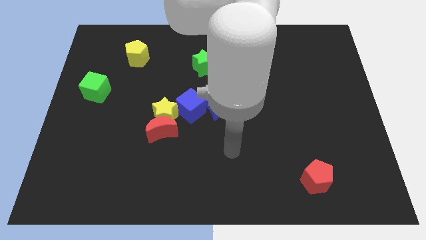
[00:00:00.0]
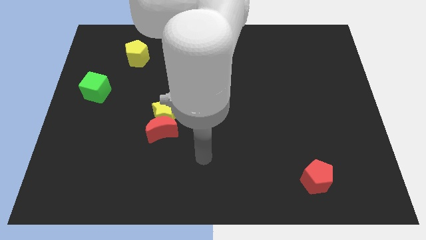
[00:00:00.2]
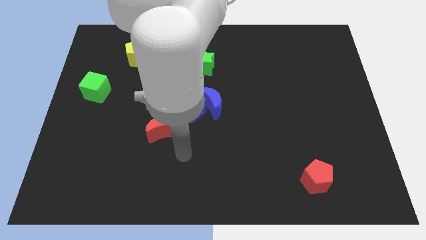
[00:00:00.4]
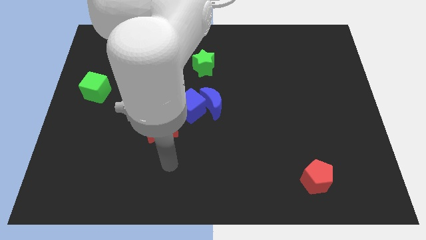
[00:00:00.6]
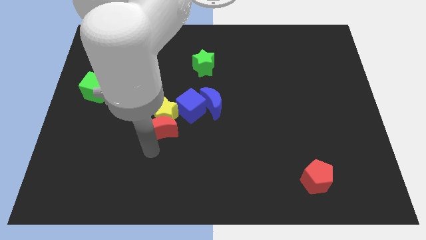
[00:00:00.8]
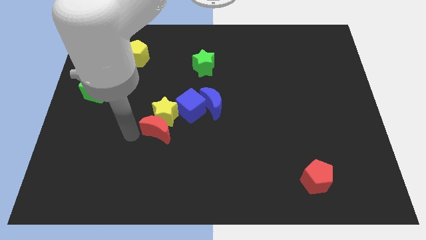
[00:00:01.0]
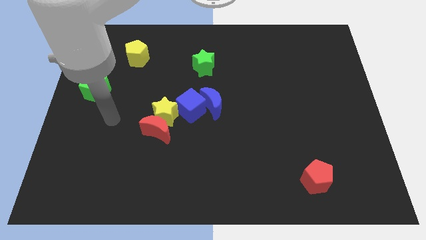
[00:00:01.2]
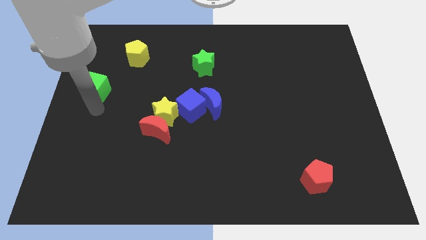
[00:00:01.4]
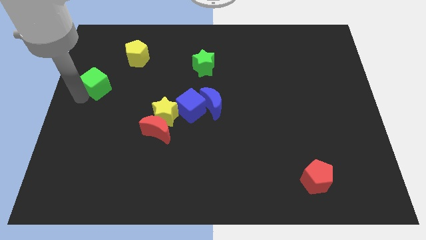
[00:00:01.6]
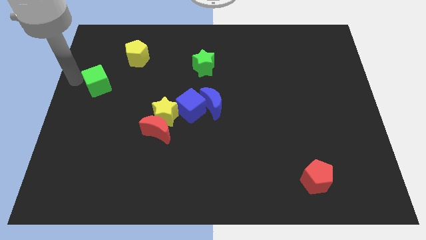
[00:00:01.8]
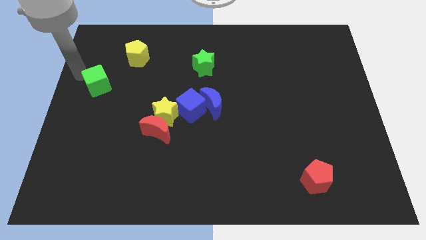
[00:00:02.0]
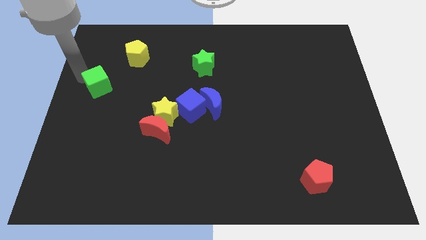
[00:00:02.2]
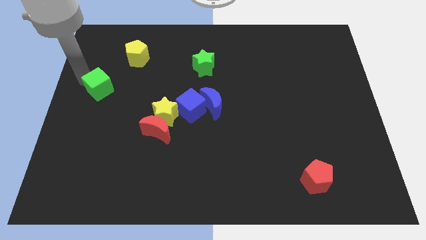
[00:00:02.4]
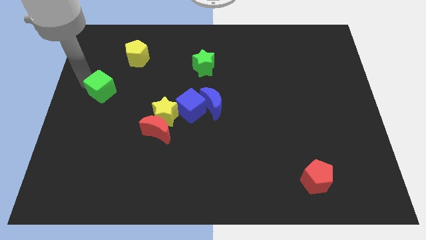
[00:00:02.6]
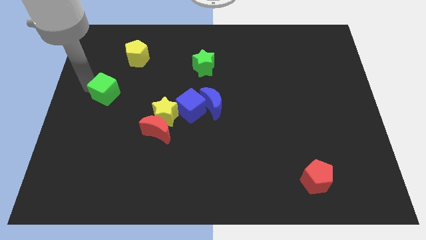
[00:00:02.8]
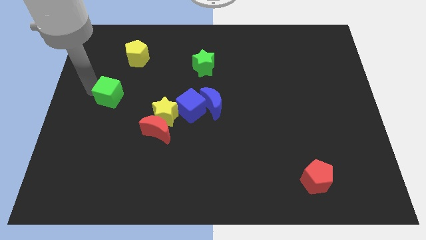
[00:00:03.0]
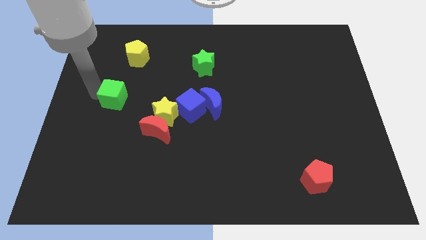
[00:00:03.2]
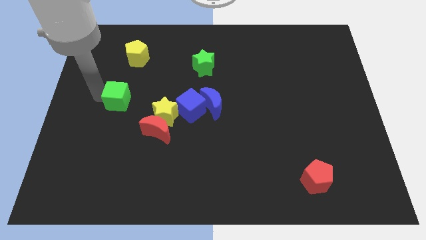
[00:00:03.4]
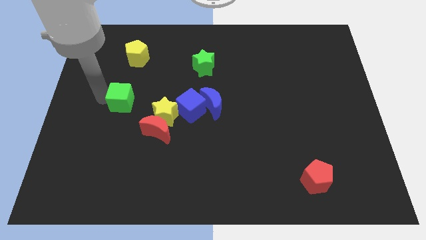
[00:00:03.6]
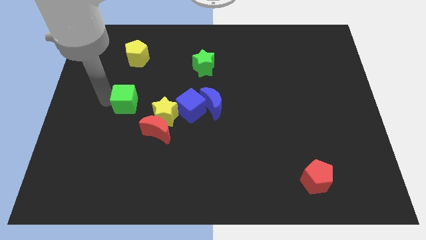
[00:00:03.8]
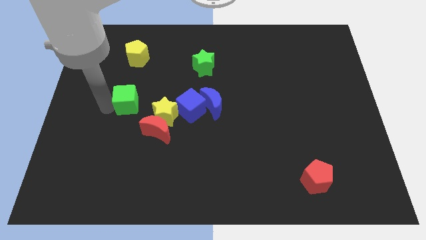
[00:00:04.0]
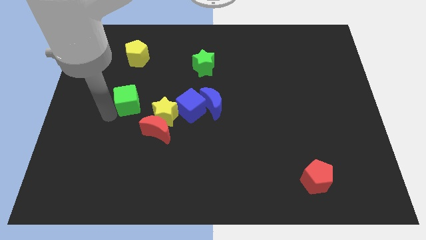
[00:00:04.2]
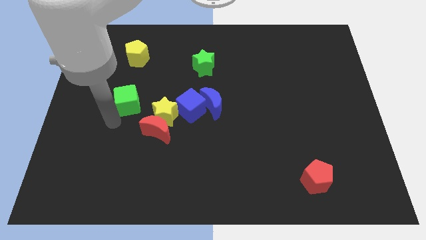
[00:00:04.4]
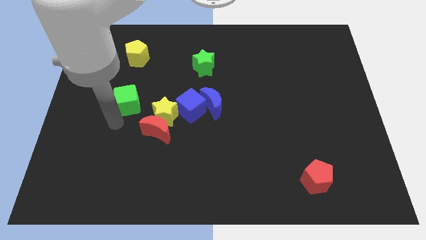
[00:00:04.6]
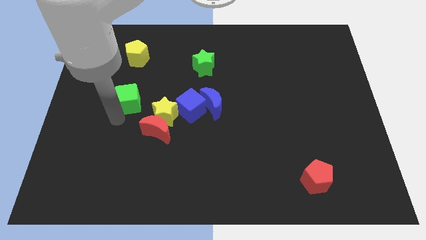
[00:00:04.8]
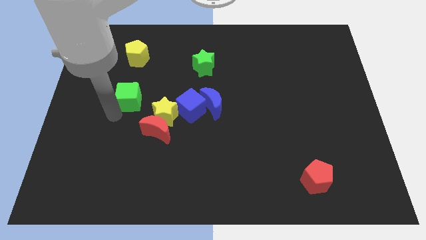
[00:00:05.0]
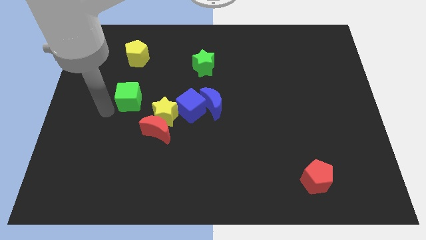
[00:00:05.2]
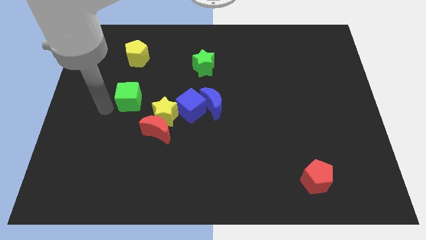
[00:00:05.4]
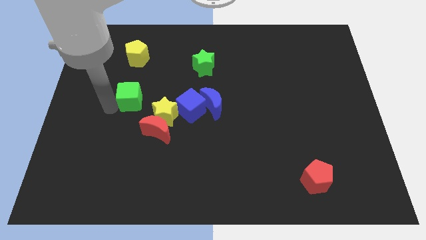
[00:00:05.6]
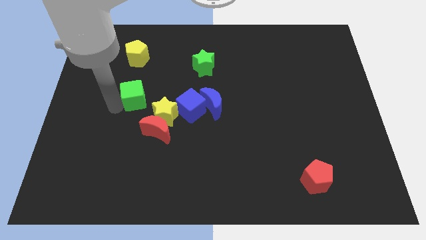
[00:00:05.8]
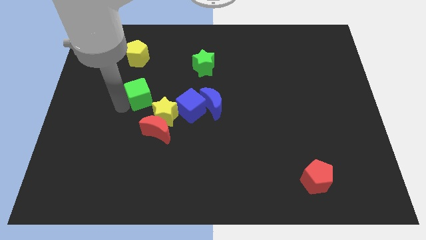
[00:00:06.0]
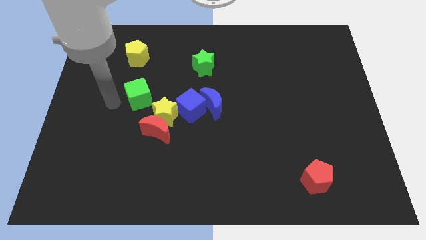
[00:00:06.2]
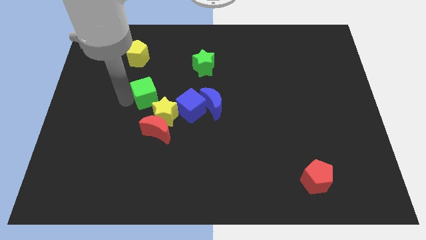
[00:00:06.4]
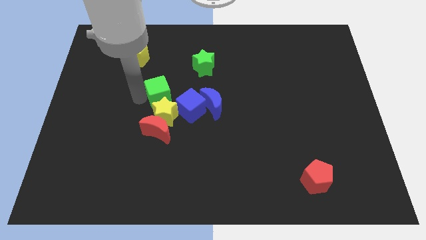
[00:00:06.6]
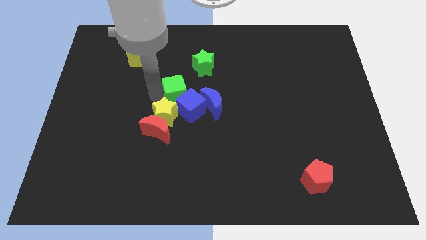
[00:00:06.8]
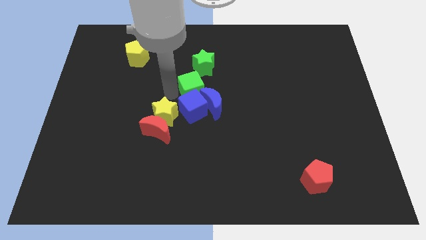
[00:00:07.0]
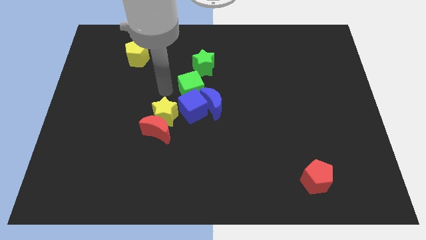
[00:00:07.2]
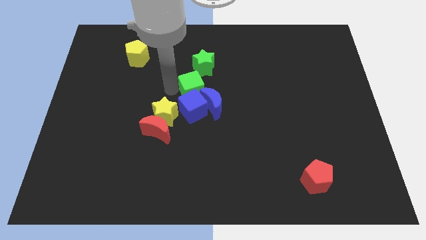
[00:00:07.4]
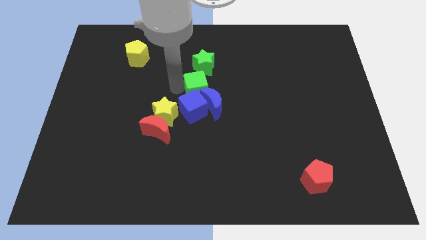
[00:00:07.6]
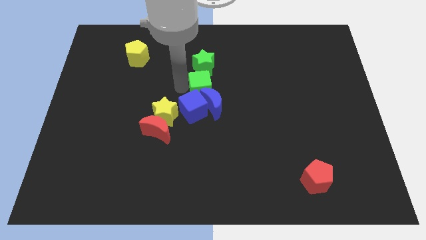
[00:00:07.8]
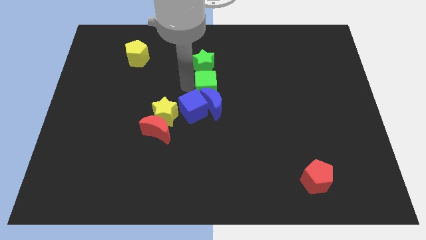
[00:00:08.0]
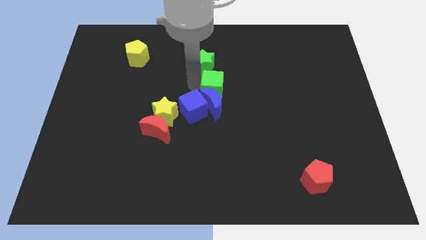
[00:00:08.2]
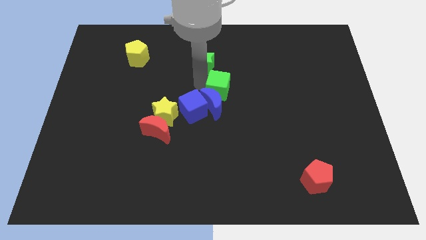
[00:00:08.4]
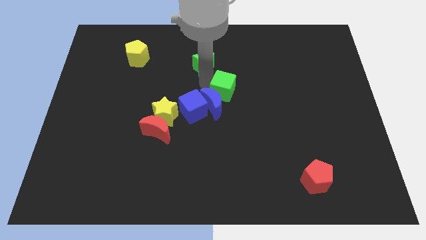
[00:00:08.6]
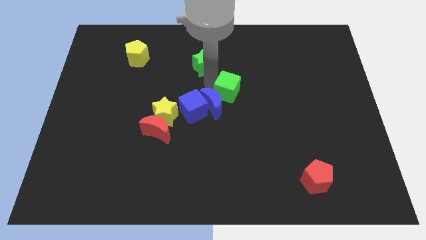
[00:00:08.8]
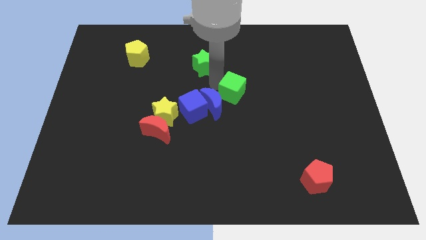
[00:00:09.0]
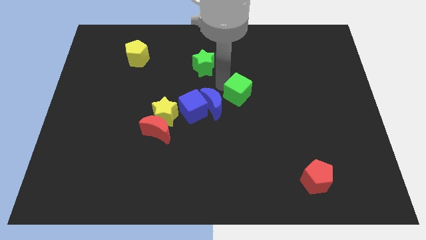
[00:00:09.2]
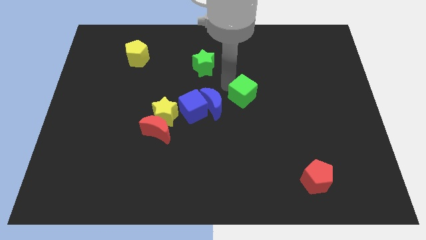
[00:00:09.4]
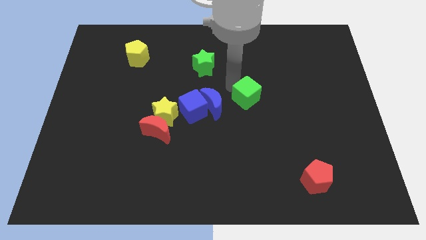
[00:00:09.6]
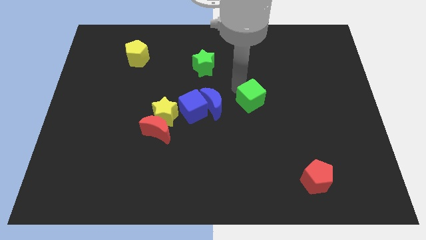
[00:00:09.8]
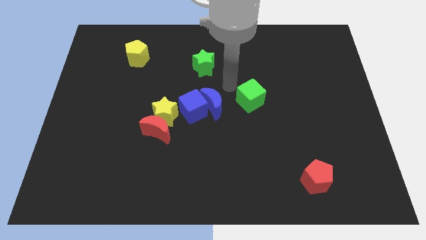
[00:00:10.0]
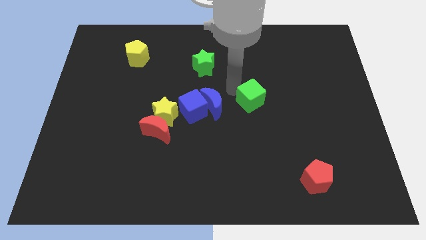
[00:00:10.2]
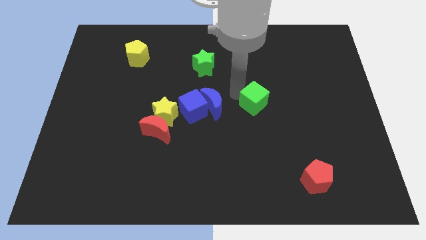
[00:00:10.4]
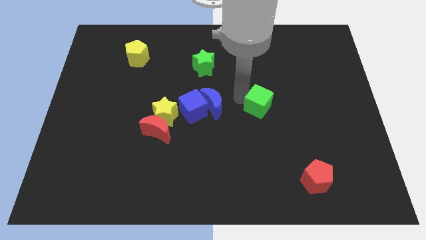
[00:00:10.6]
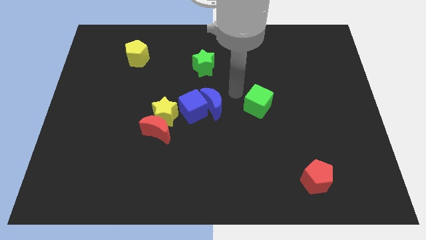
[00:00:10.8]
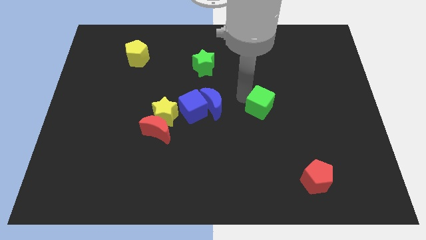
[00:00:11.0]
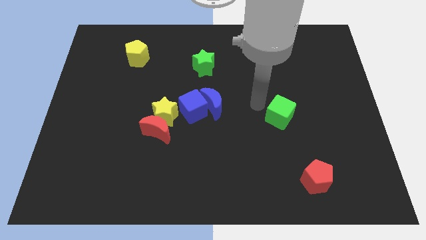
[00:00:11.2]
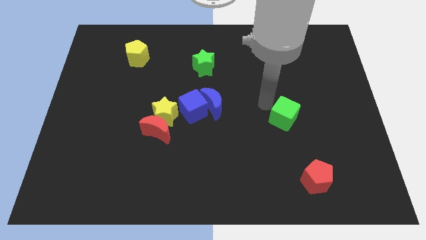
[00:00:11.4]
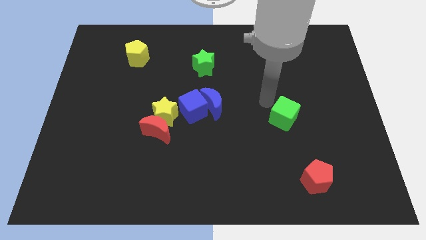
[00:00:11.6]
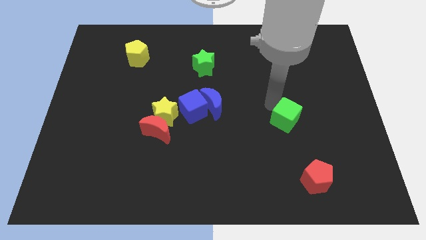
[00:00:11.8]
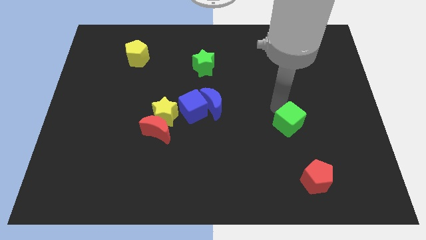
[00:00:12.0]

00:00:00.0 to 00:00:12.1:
move the green cube to the top side of the red pentagon

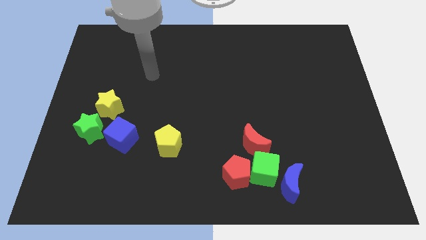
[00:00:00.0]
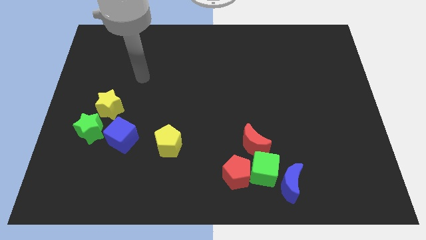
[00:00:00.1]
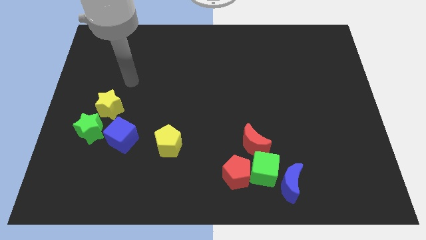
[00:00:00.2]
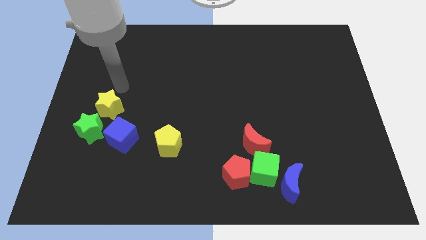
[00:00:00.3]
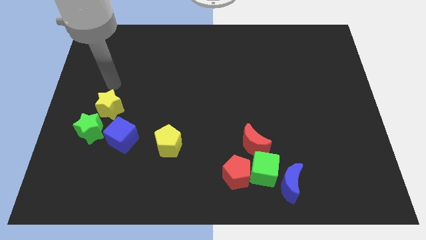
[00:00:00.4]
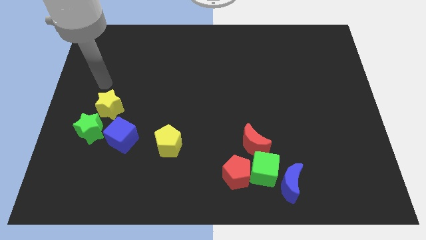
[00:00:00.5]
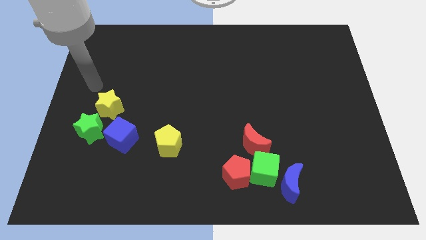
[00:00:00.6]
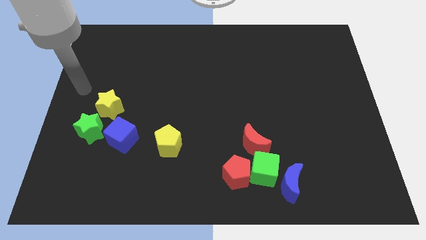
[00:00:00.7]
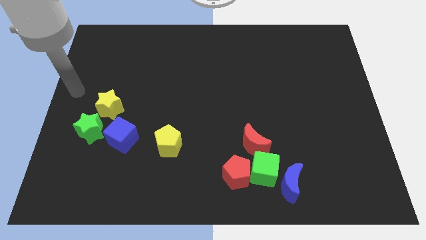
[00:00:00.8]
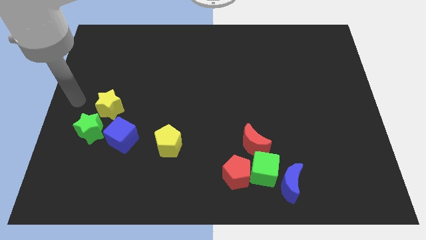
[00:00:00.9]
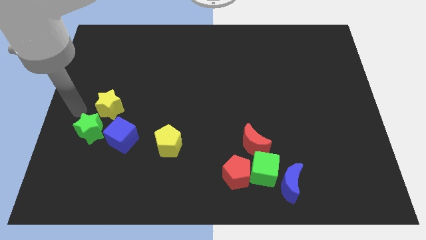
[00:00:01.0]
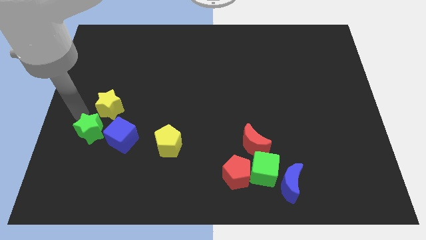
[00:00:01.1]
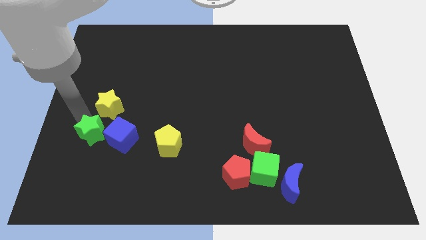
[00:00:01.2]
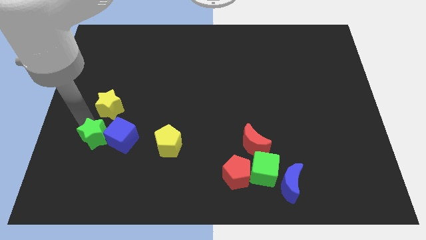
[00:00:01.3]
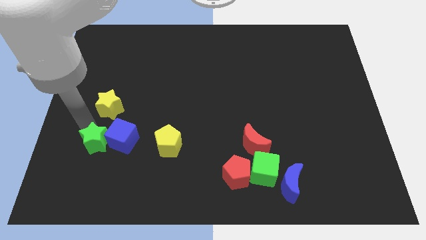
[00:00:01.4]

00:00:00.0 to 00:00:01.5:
put the green star to the left of the yellow pentagon
